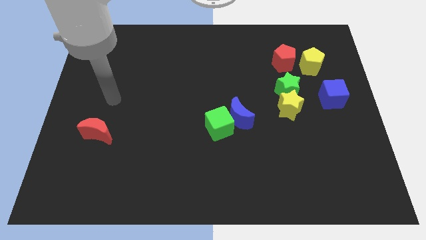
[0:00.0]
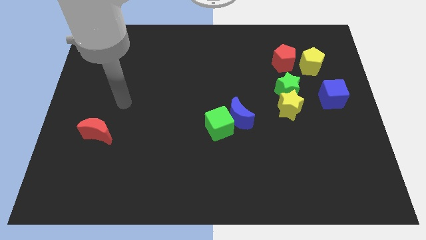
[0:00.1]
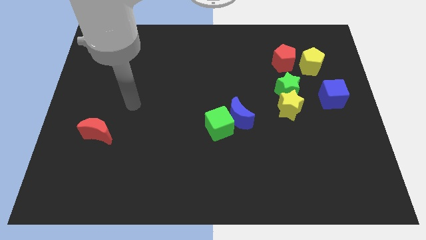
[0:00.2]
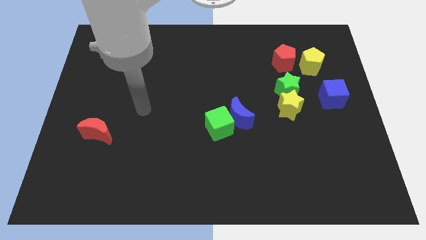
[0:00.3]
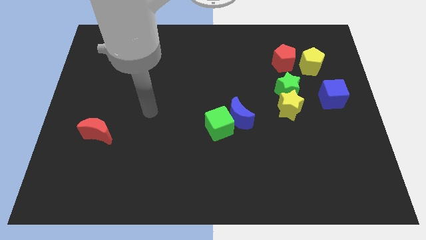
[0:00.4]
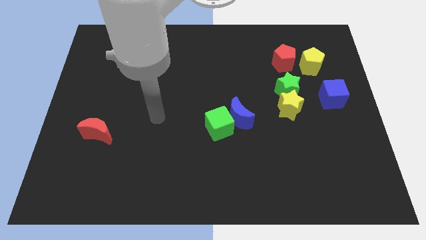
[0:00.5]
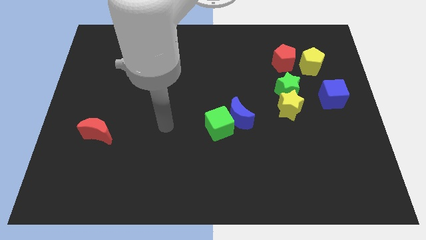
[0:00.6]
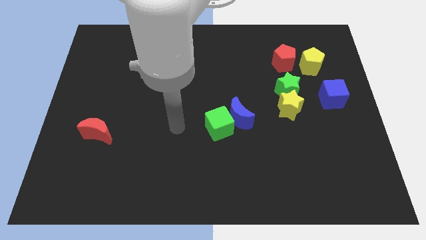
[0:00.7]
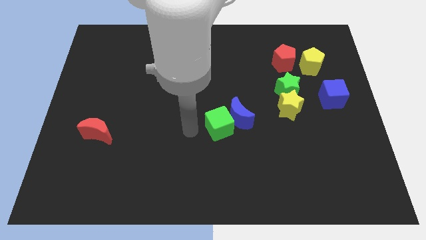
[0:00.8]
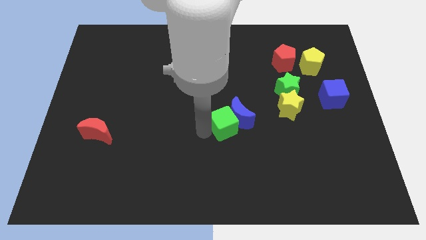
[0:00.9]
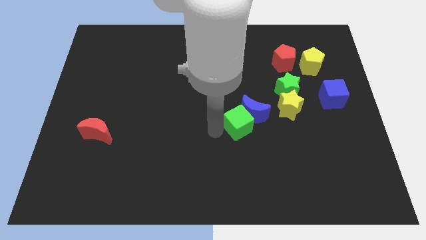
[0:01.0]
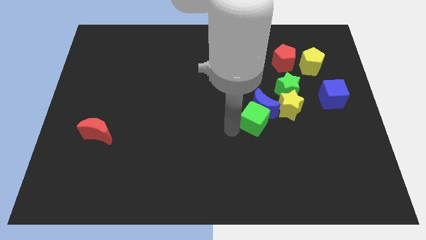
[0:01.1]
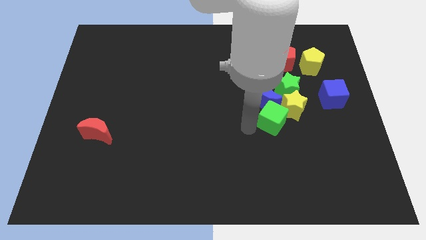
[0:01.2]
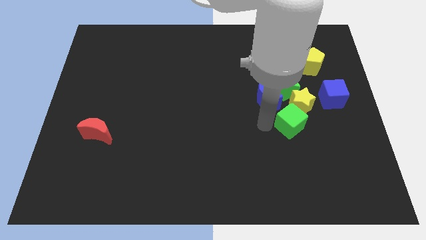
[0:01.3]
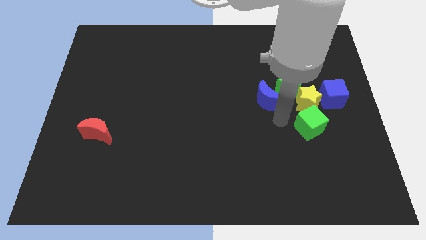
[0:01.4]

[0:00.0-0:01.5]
separate the blue moon from the green cube

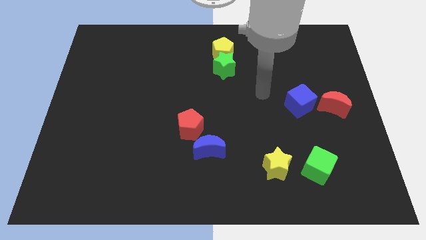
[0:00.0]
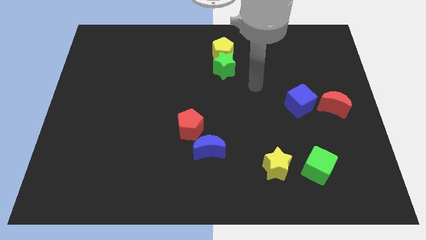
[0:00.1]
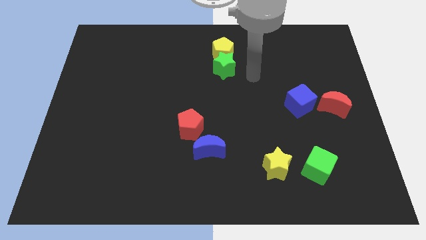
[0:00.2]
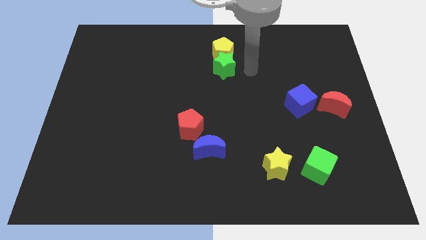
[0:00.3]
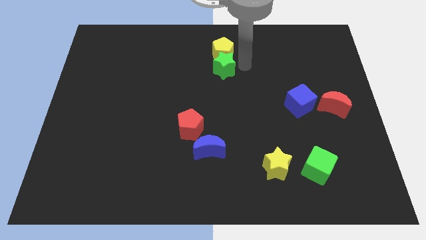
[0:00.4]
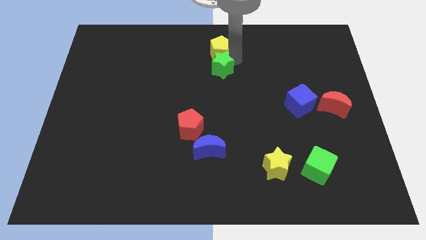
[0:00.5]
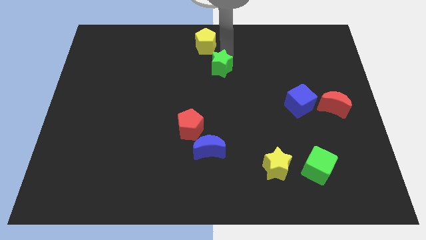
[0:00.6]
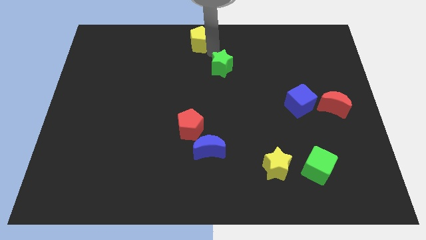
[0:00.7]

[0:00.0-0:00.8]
separate the green star from the yellow pentagon

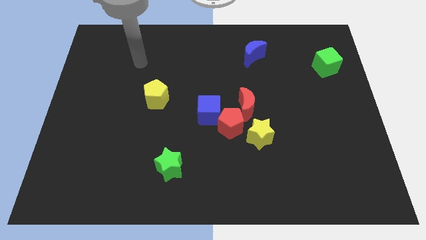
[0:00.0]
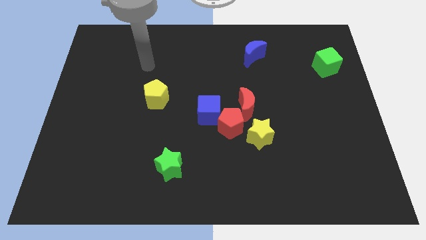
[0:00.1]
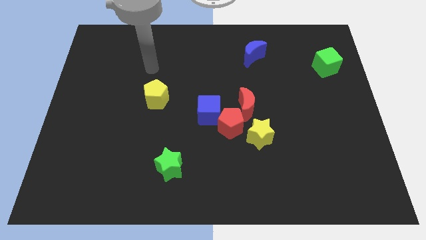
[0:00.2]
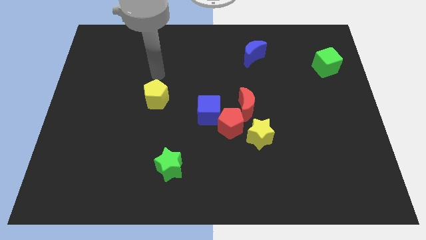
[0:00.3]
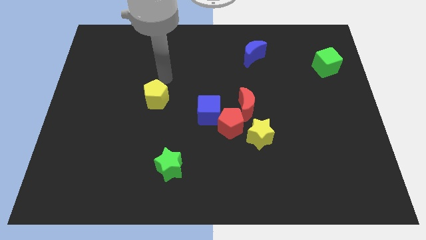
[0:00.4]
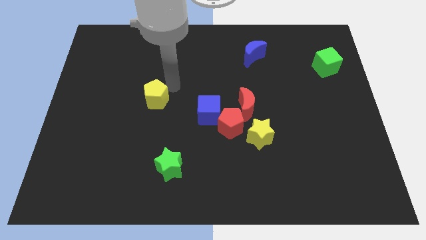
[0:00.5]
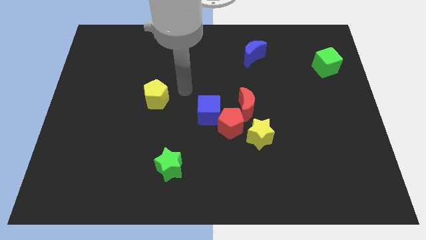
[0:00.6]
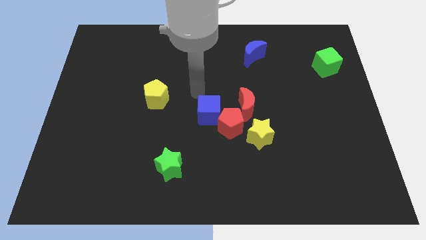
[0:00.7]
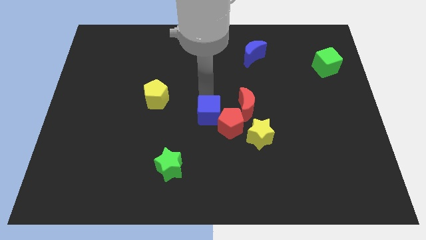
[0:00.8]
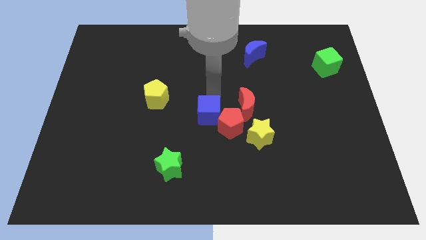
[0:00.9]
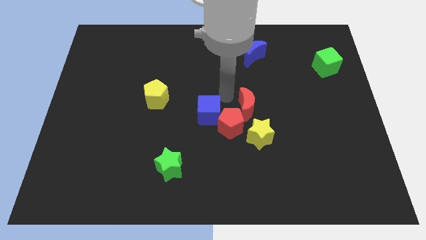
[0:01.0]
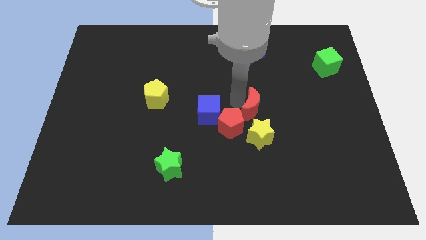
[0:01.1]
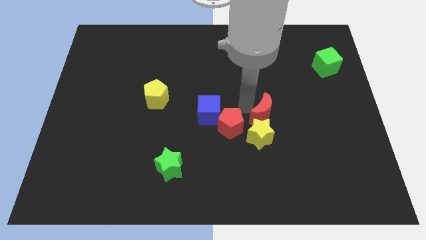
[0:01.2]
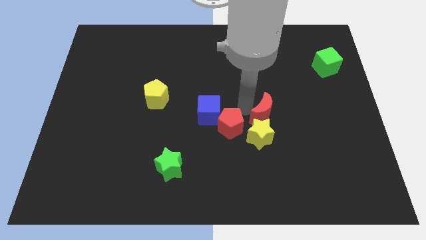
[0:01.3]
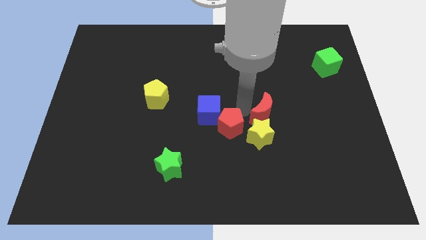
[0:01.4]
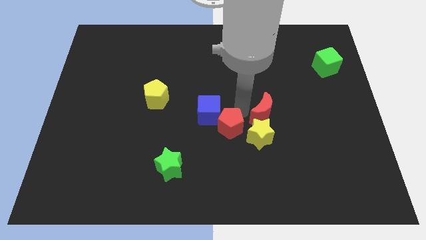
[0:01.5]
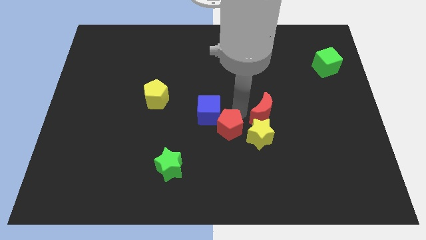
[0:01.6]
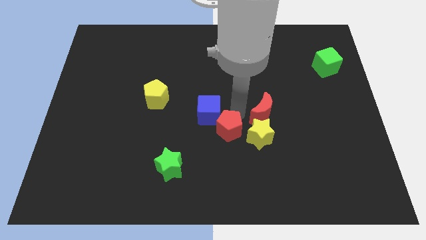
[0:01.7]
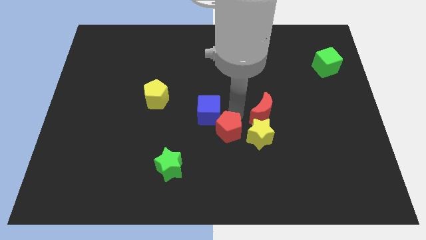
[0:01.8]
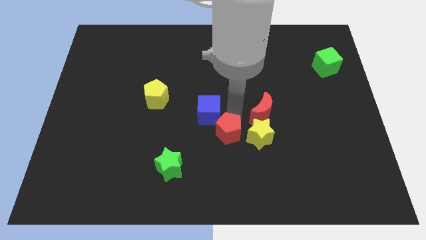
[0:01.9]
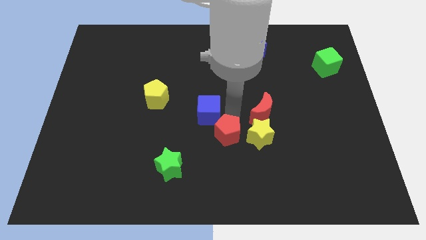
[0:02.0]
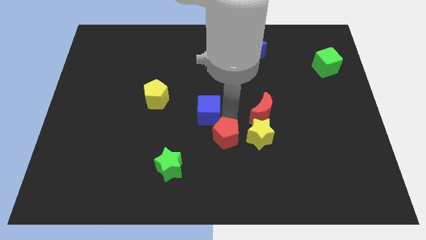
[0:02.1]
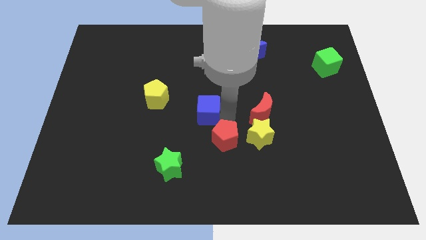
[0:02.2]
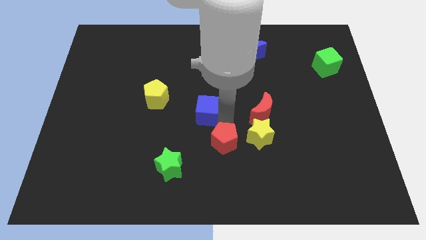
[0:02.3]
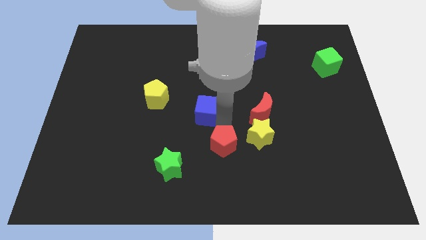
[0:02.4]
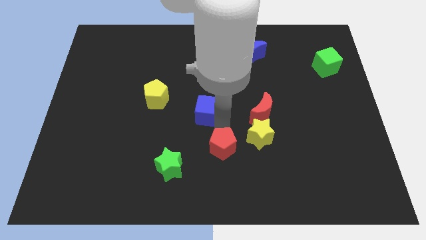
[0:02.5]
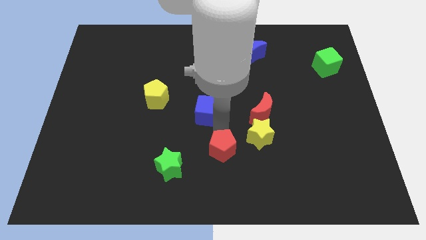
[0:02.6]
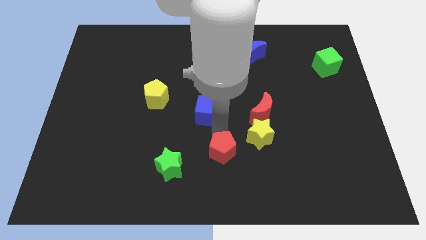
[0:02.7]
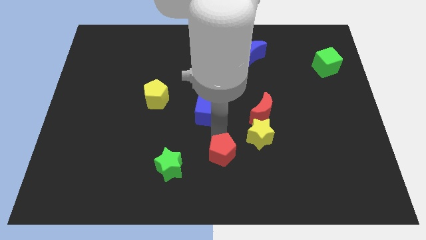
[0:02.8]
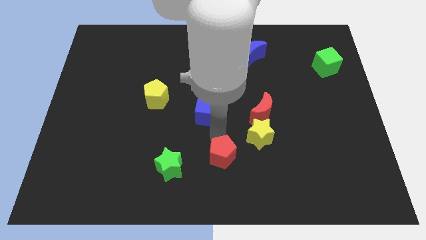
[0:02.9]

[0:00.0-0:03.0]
separate the red pentagon from the blue cube, red moon, and yellow star

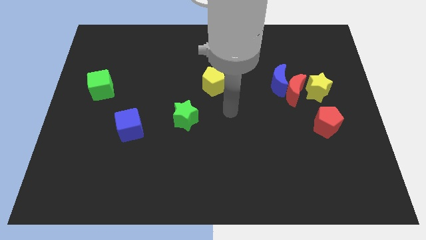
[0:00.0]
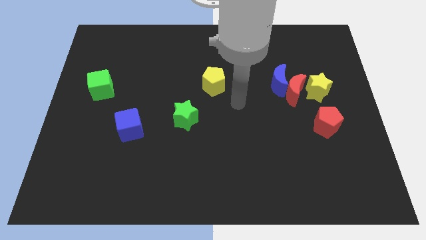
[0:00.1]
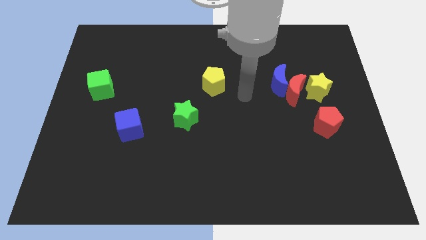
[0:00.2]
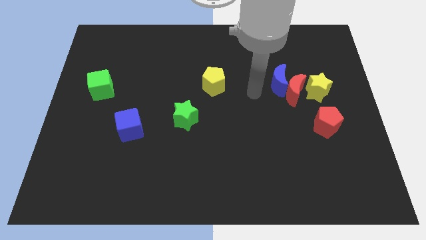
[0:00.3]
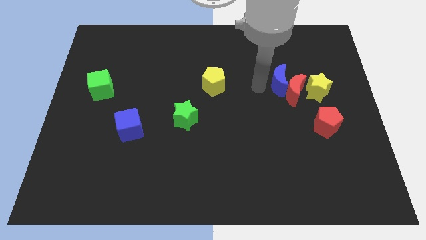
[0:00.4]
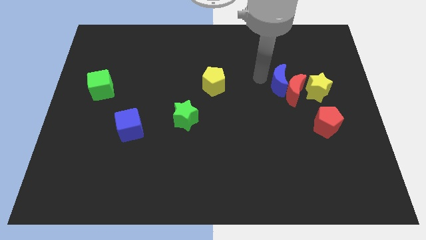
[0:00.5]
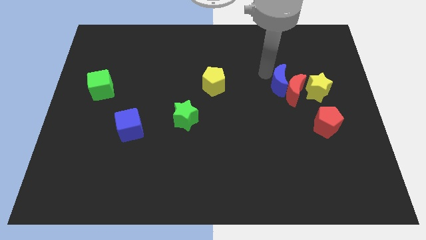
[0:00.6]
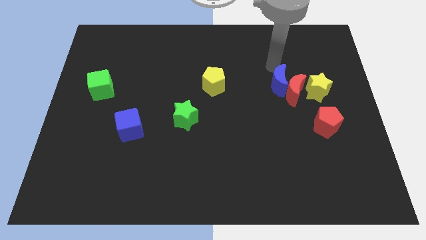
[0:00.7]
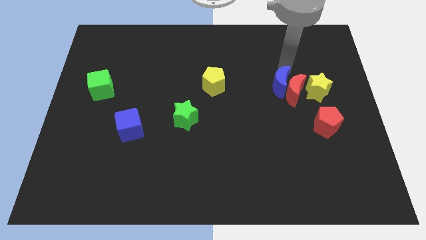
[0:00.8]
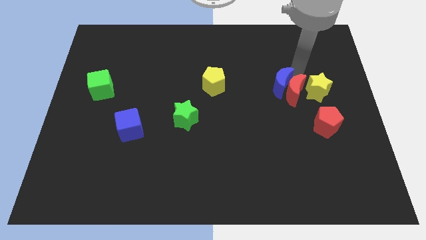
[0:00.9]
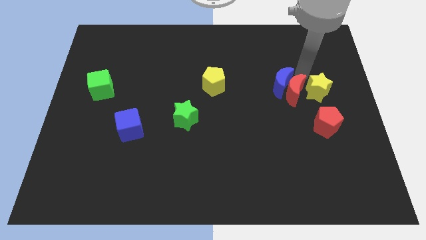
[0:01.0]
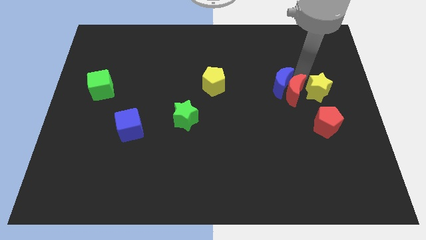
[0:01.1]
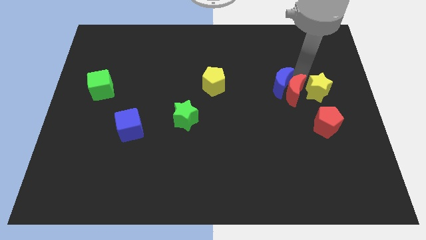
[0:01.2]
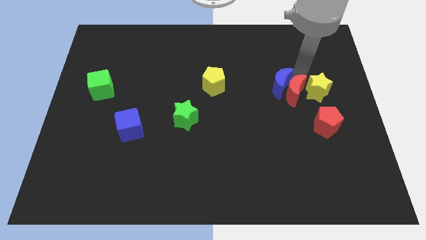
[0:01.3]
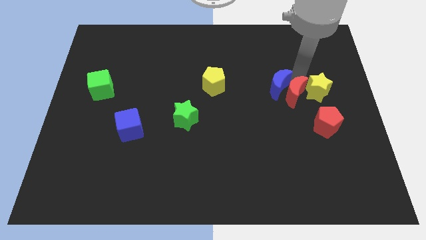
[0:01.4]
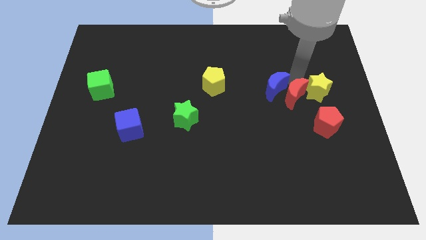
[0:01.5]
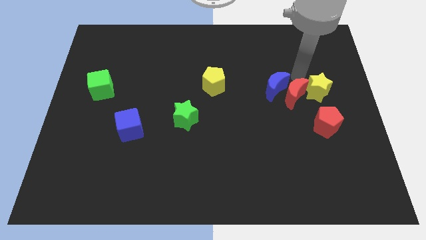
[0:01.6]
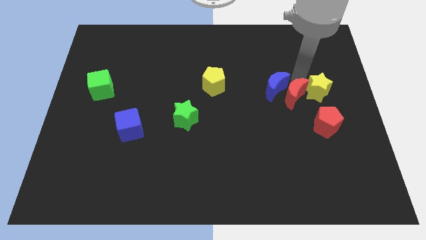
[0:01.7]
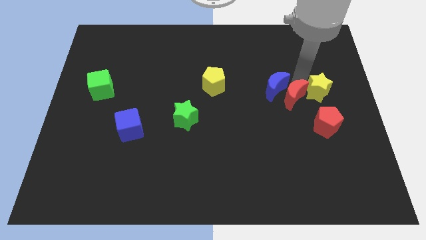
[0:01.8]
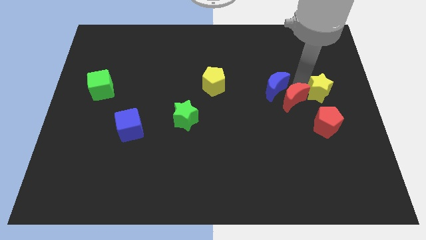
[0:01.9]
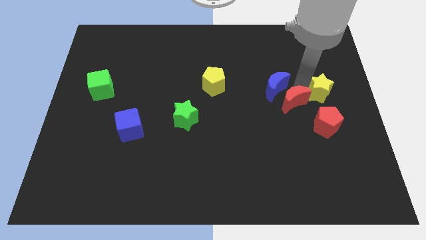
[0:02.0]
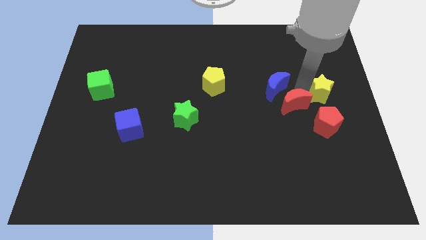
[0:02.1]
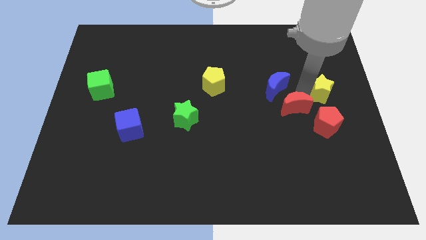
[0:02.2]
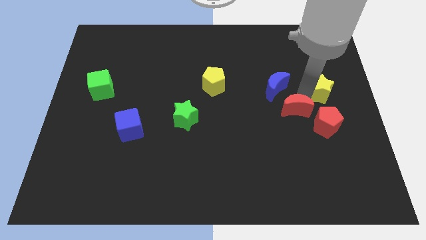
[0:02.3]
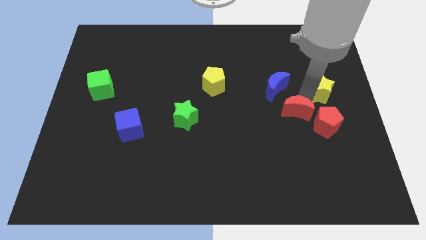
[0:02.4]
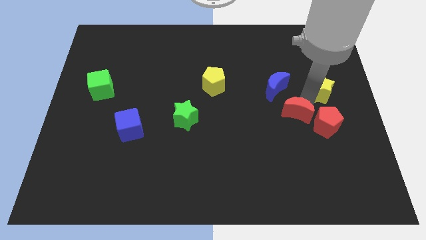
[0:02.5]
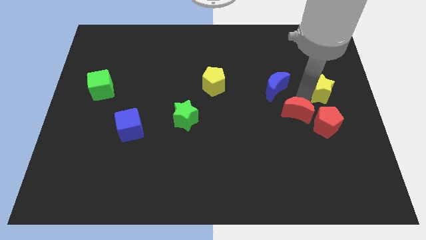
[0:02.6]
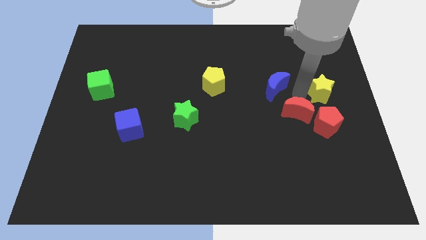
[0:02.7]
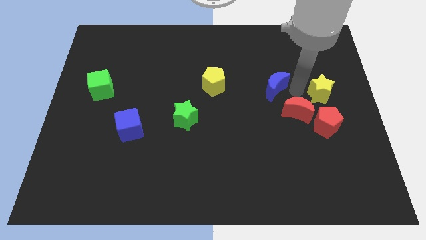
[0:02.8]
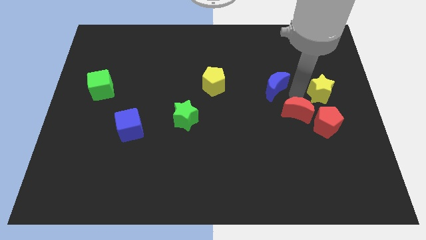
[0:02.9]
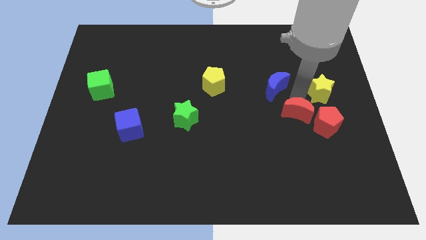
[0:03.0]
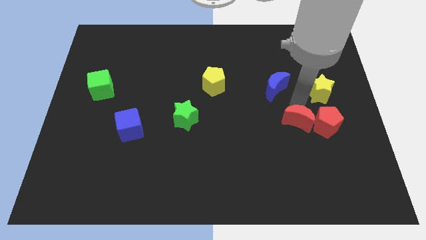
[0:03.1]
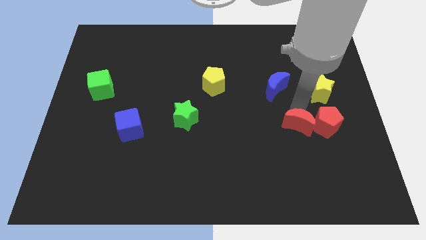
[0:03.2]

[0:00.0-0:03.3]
move the red moon away from the blue moon and yellow star

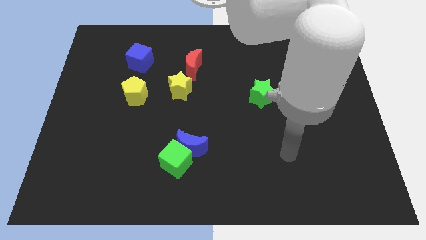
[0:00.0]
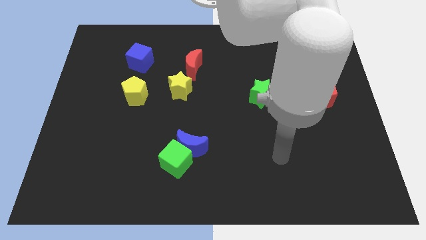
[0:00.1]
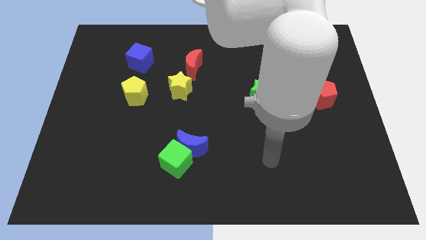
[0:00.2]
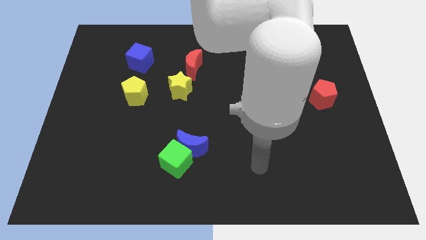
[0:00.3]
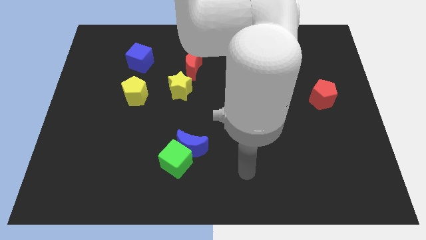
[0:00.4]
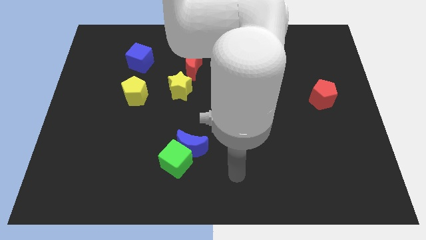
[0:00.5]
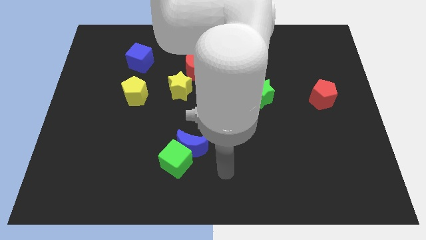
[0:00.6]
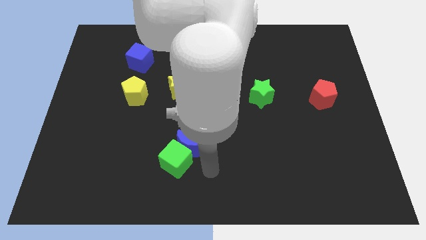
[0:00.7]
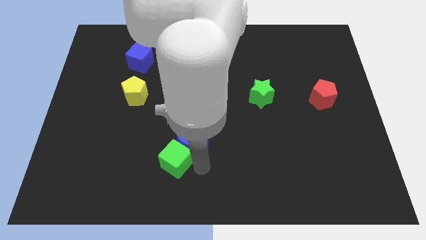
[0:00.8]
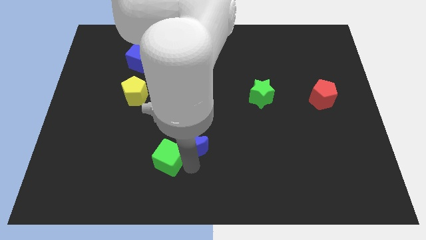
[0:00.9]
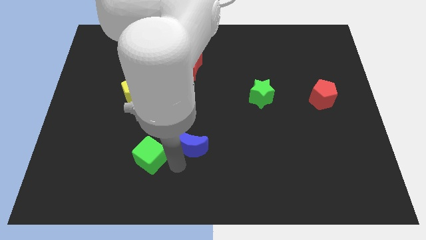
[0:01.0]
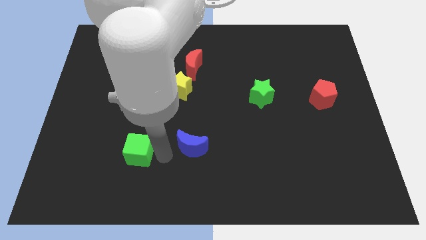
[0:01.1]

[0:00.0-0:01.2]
pull the blue moon apart from the green cube
